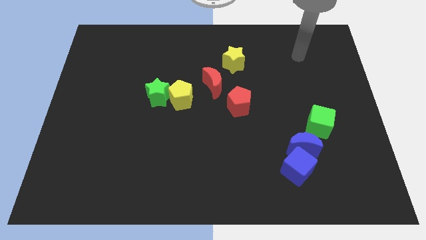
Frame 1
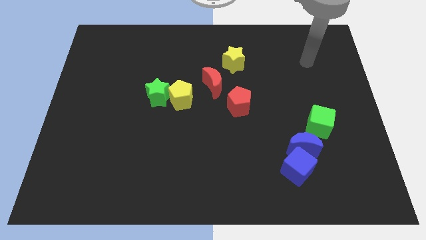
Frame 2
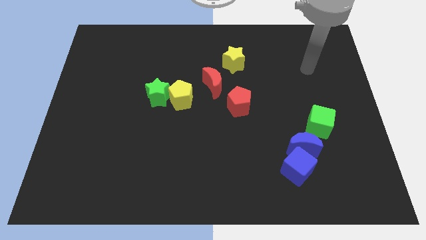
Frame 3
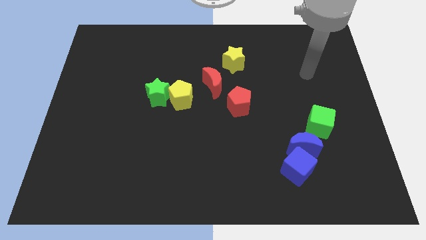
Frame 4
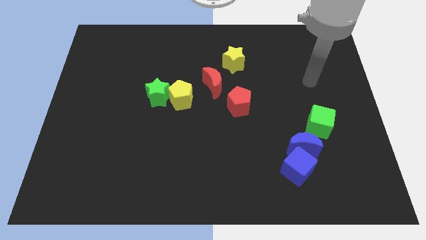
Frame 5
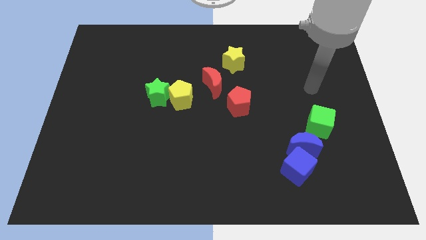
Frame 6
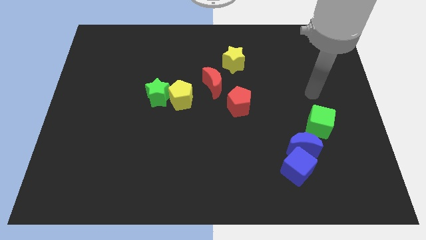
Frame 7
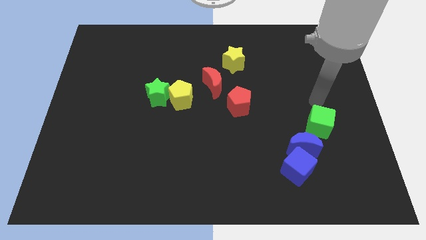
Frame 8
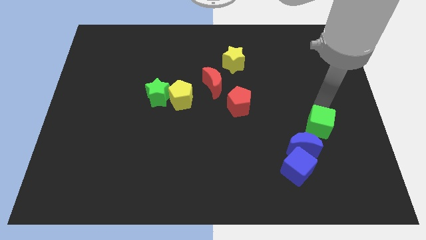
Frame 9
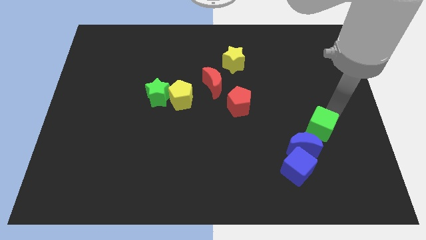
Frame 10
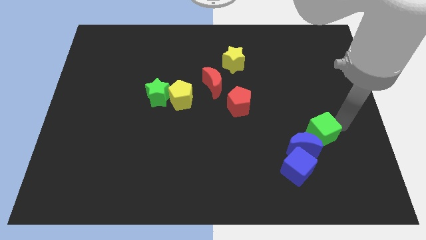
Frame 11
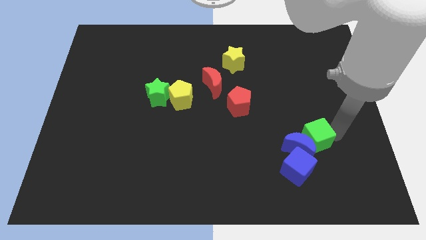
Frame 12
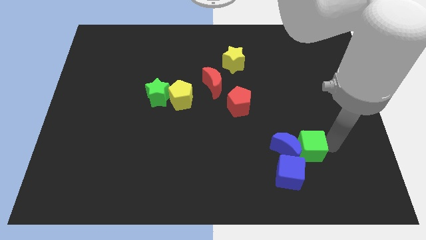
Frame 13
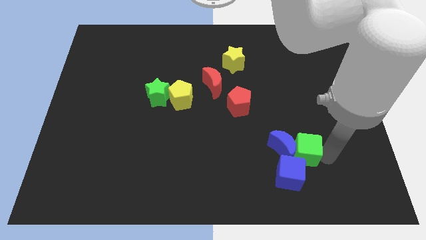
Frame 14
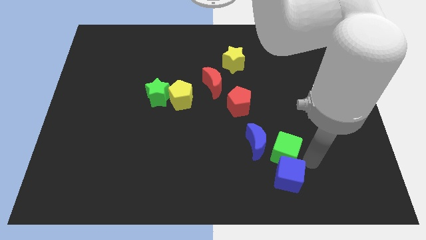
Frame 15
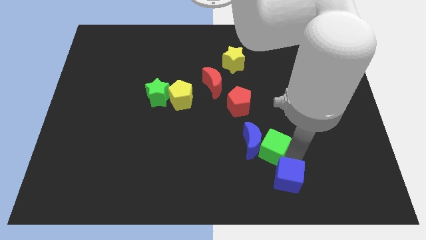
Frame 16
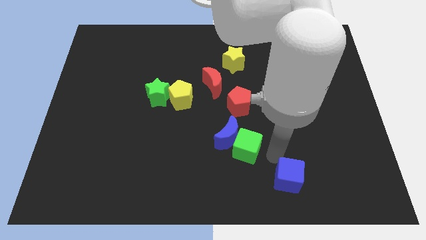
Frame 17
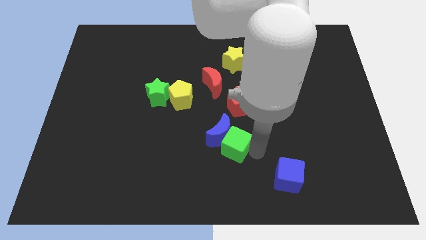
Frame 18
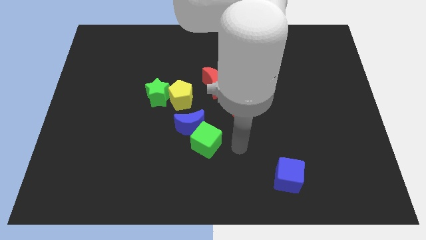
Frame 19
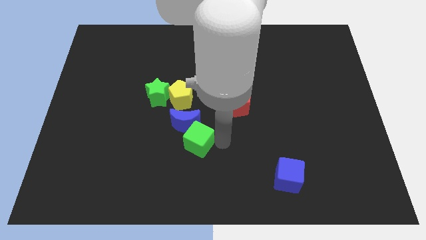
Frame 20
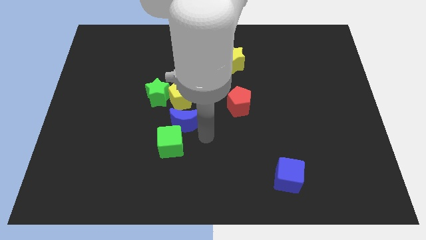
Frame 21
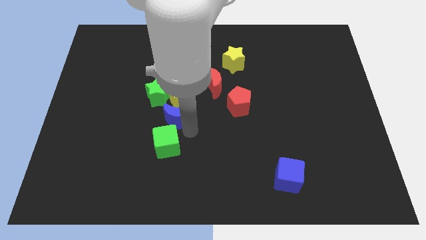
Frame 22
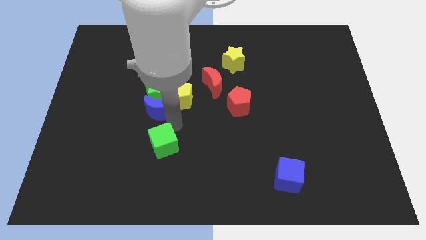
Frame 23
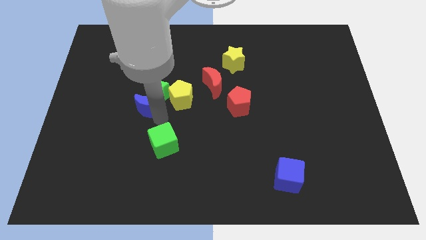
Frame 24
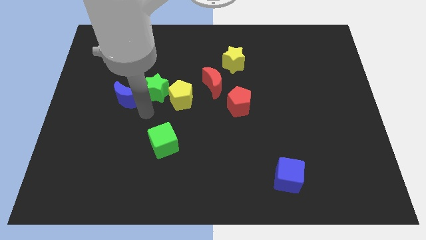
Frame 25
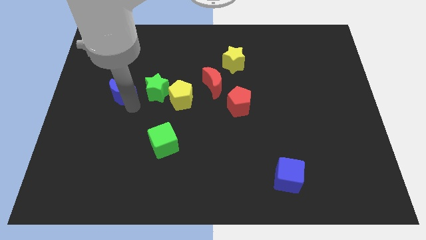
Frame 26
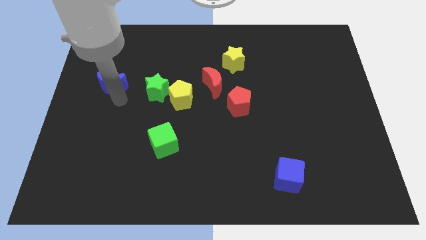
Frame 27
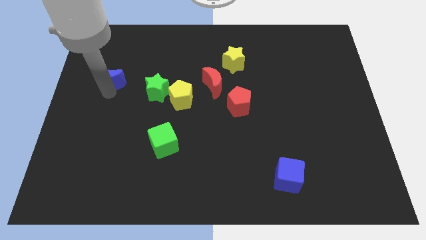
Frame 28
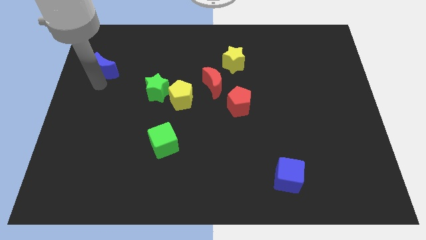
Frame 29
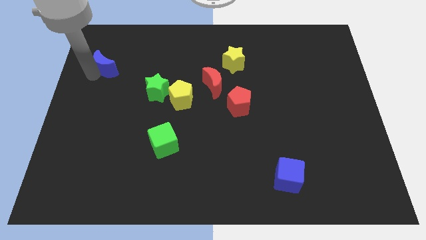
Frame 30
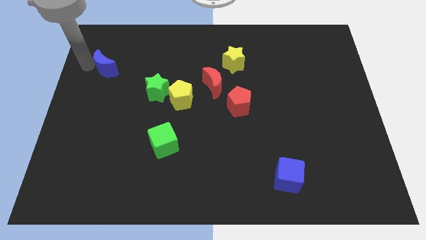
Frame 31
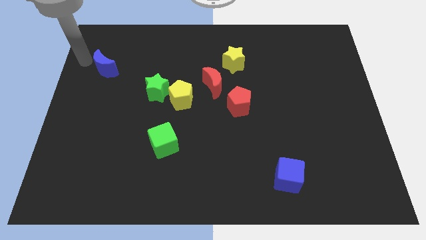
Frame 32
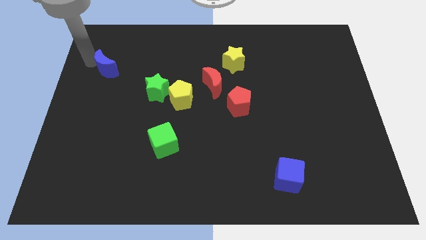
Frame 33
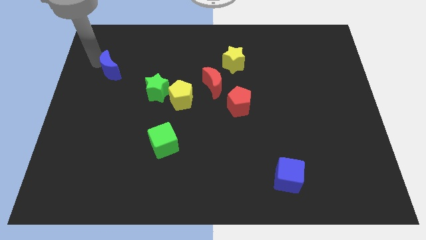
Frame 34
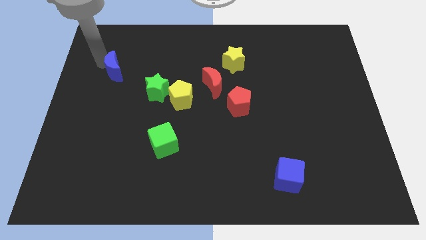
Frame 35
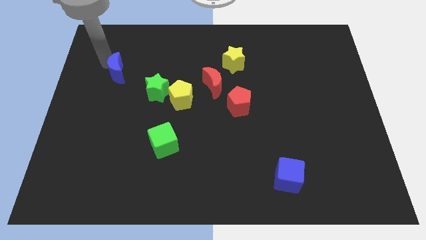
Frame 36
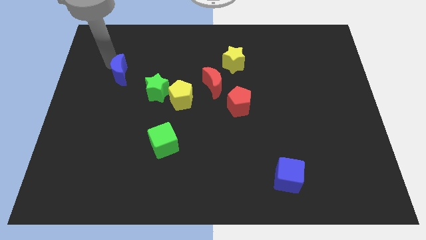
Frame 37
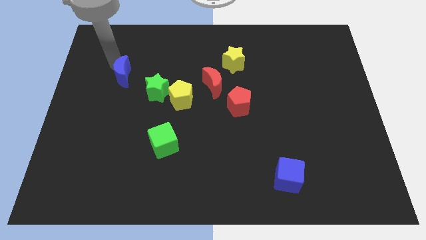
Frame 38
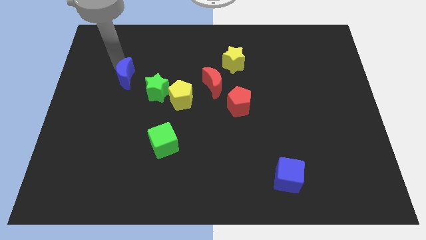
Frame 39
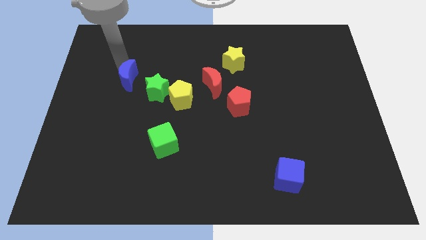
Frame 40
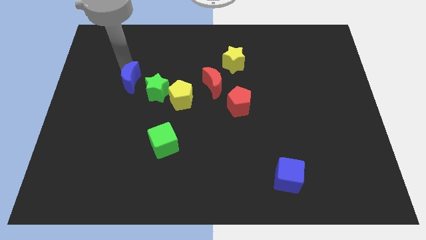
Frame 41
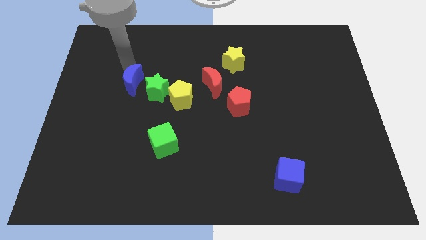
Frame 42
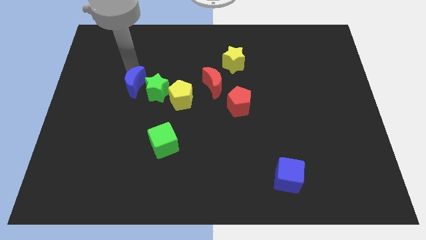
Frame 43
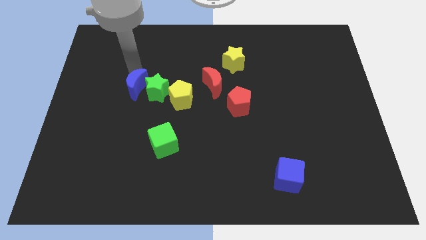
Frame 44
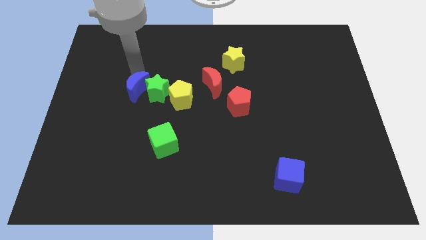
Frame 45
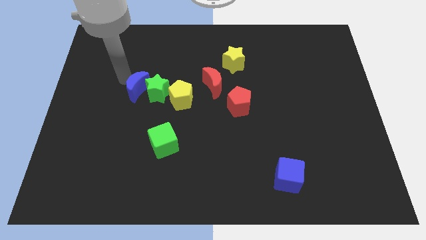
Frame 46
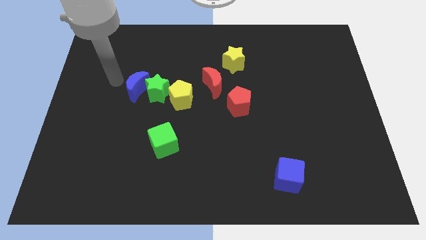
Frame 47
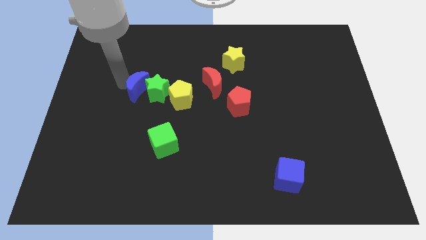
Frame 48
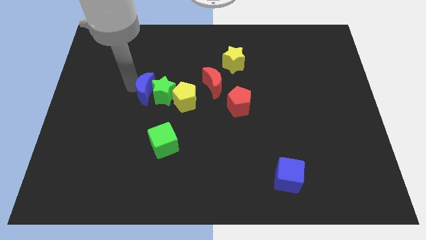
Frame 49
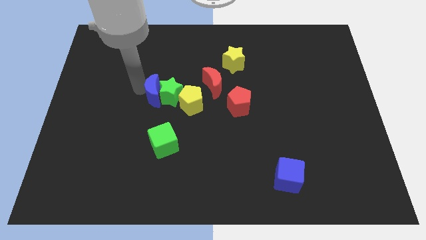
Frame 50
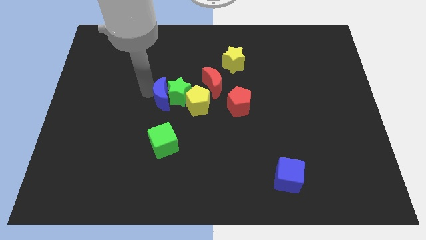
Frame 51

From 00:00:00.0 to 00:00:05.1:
slide the blue moon upwards and left diagonally

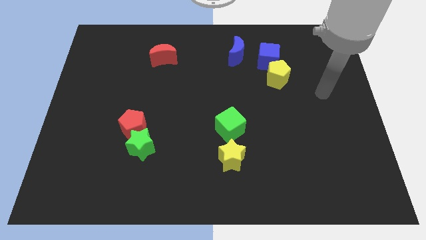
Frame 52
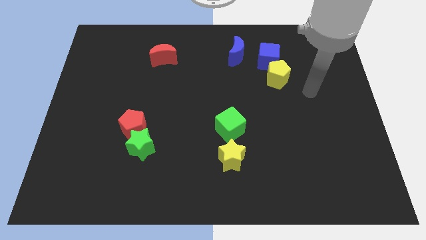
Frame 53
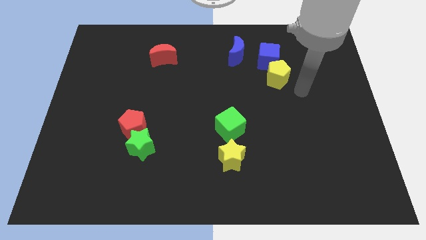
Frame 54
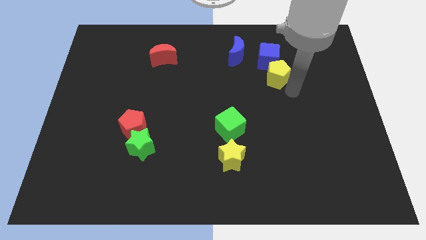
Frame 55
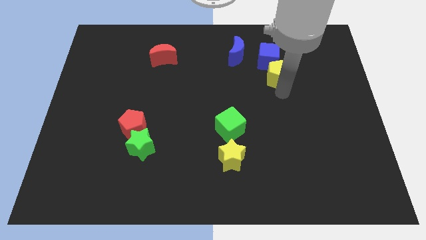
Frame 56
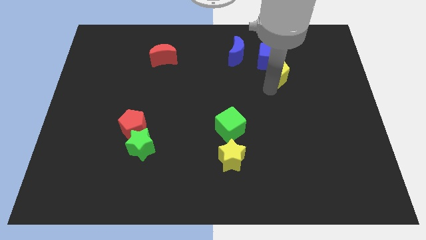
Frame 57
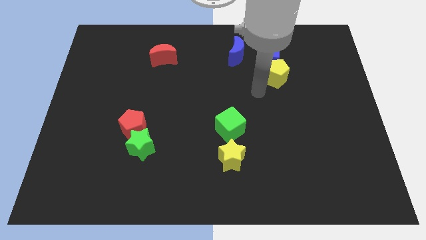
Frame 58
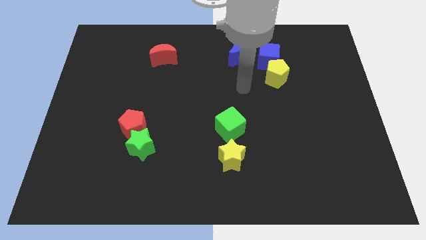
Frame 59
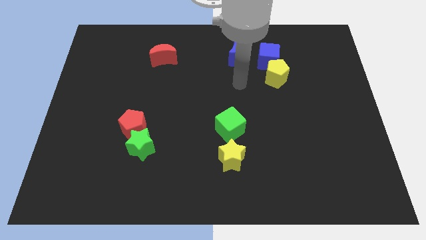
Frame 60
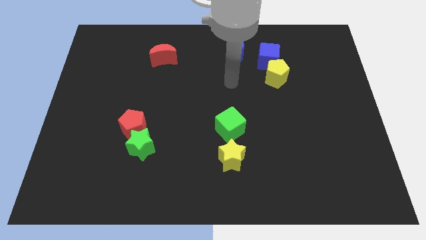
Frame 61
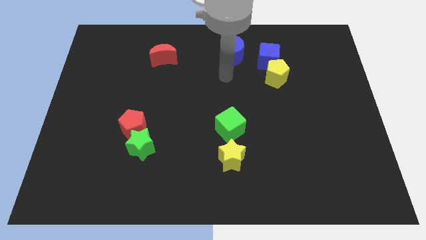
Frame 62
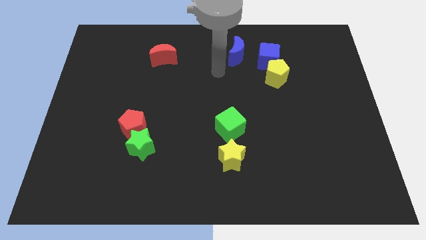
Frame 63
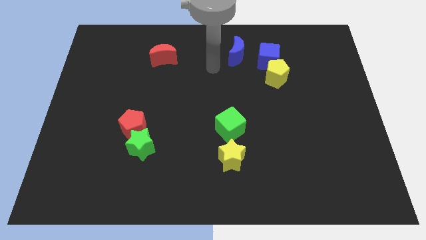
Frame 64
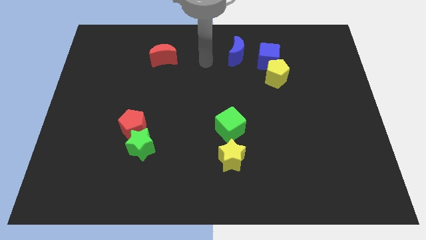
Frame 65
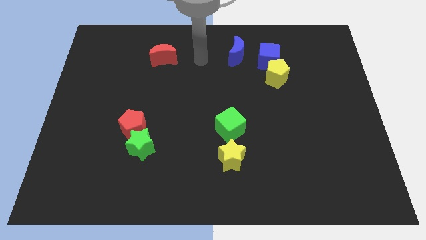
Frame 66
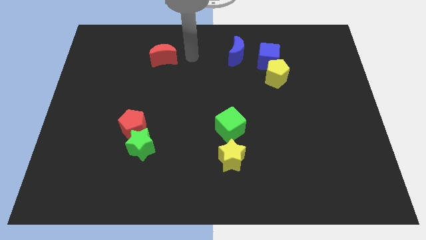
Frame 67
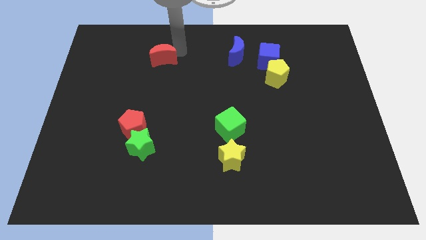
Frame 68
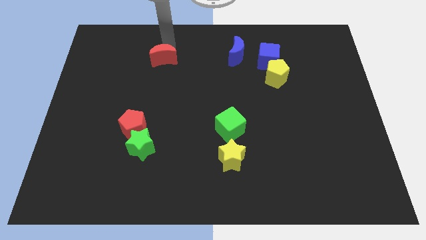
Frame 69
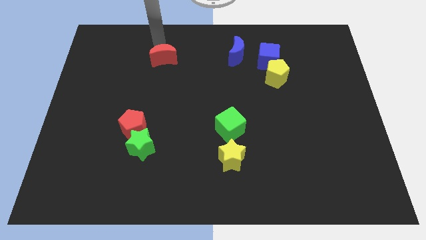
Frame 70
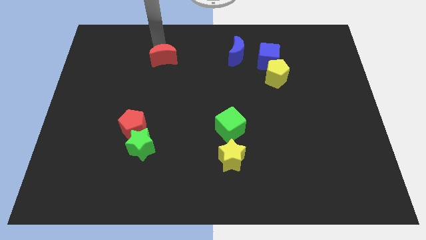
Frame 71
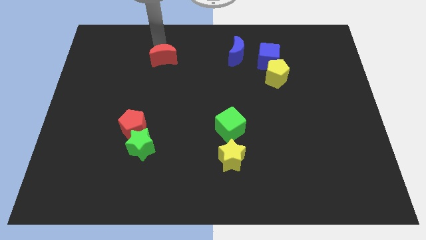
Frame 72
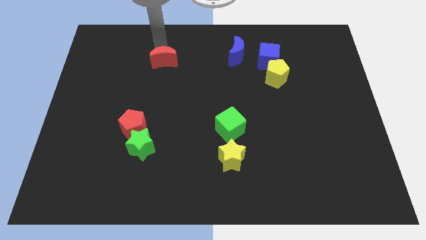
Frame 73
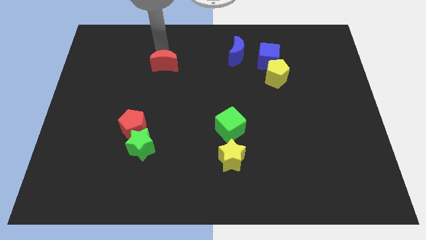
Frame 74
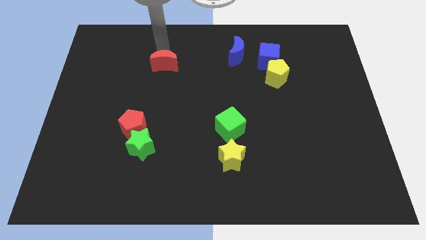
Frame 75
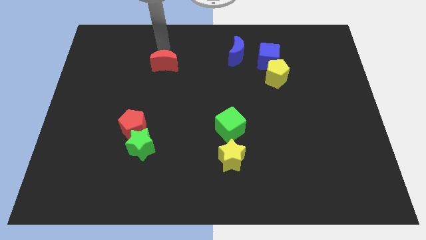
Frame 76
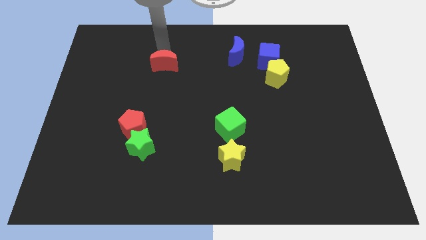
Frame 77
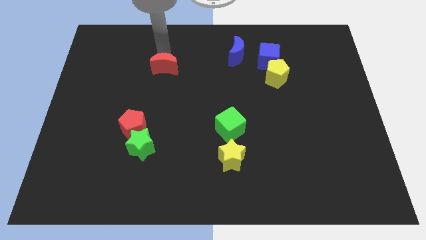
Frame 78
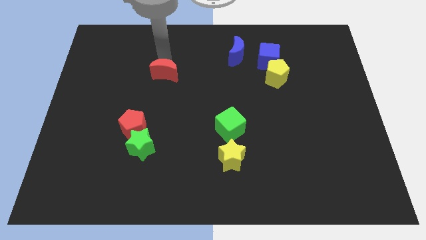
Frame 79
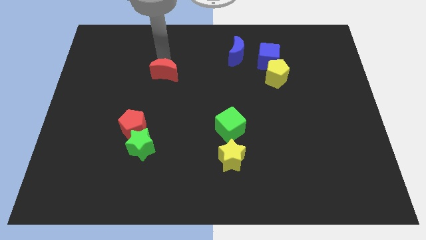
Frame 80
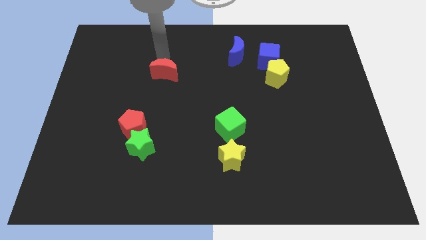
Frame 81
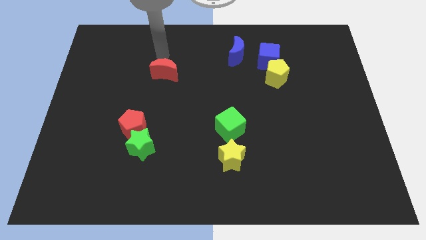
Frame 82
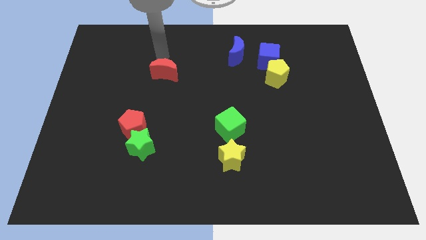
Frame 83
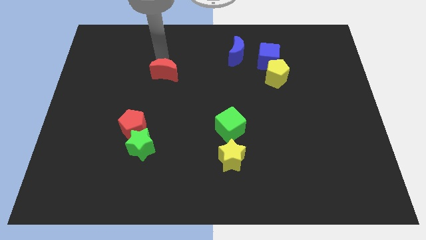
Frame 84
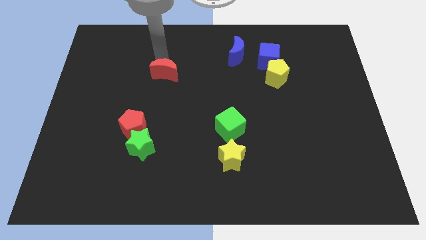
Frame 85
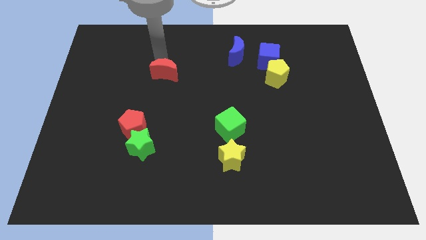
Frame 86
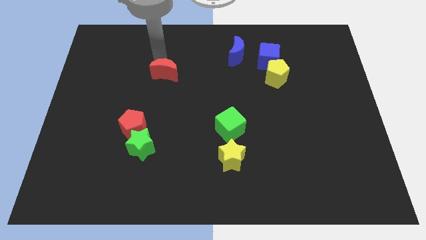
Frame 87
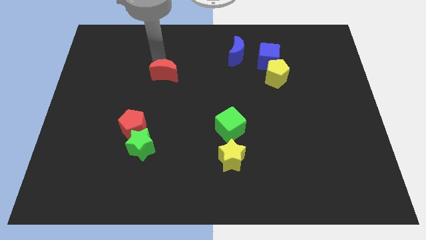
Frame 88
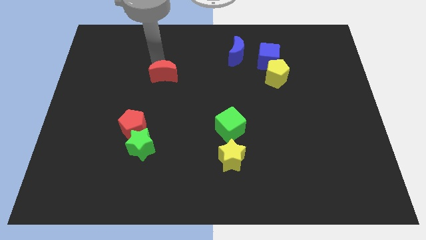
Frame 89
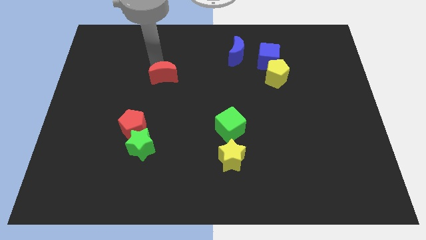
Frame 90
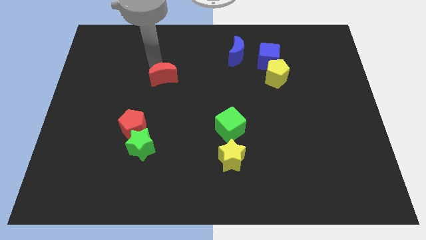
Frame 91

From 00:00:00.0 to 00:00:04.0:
slightly slide the red moon downwards
